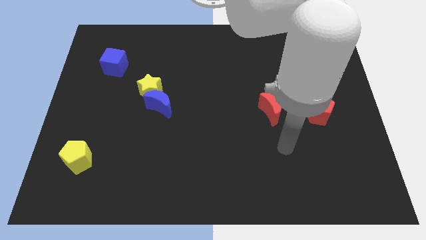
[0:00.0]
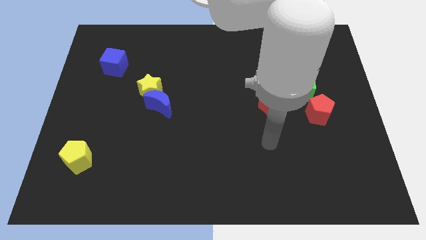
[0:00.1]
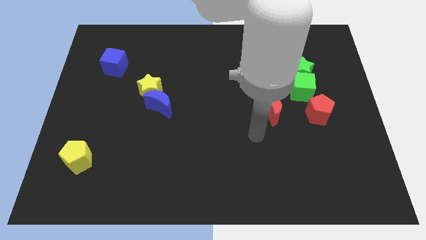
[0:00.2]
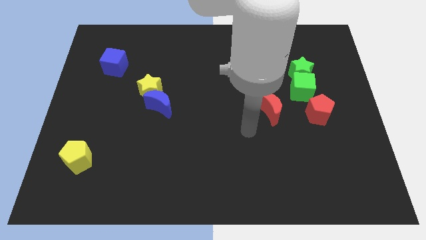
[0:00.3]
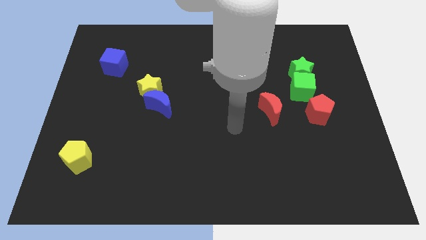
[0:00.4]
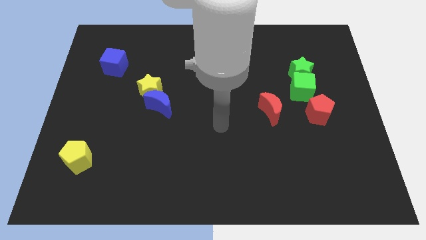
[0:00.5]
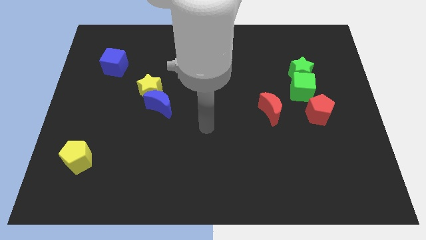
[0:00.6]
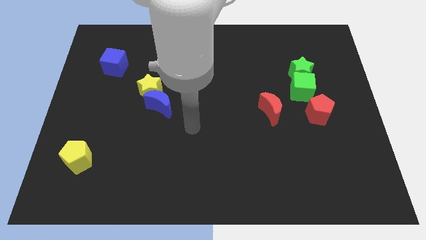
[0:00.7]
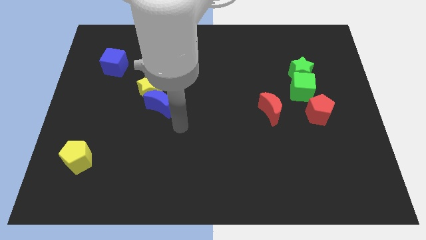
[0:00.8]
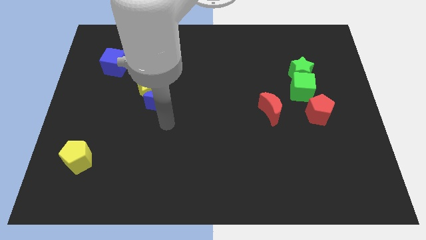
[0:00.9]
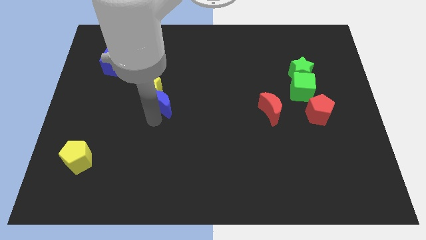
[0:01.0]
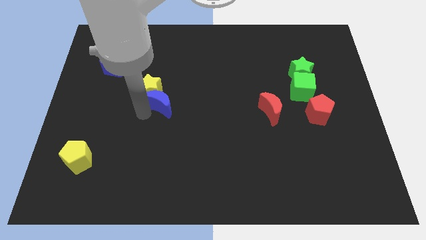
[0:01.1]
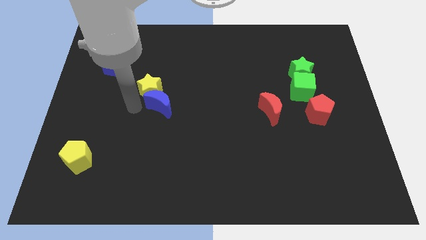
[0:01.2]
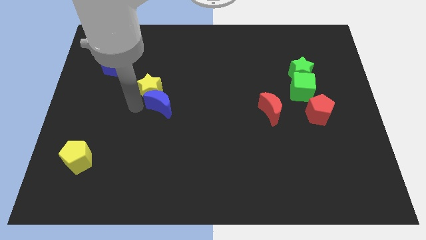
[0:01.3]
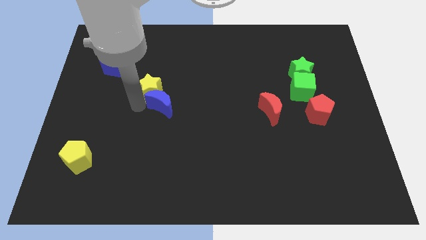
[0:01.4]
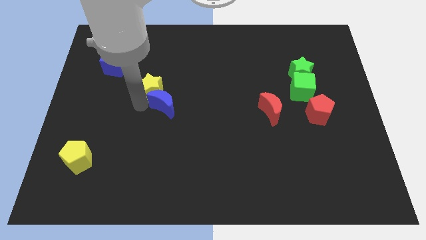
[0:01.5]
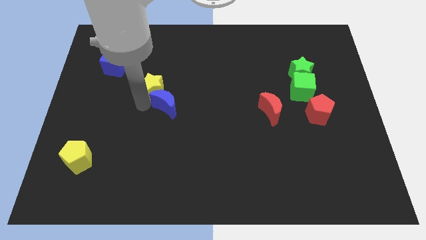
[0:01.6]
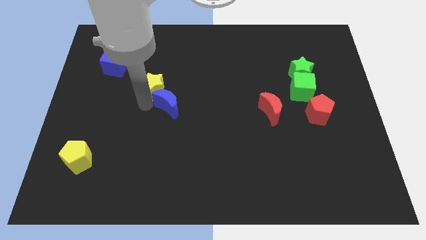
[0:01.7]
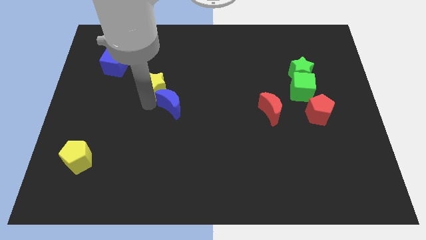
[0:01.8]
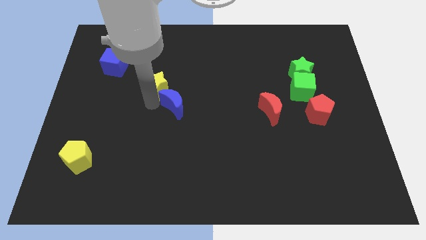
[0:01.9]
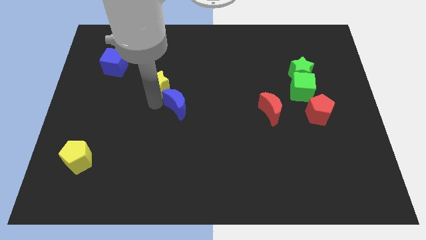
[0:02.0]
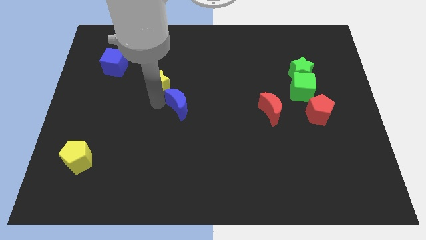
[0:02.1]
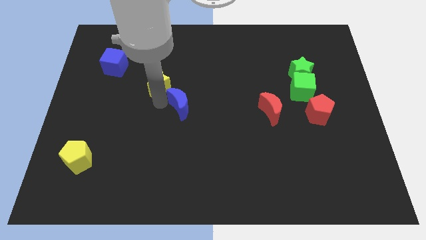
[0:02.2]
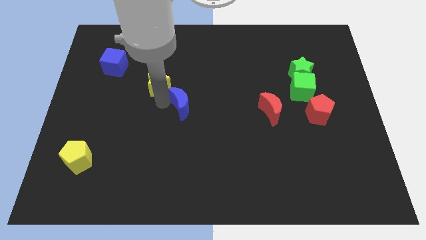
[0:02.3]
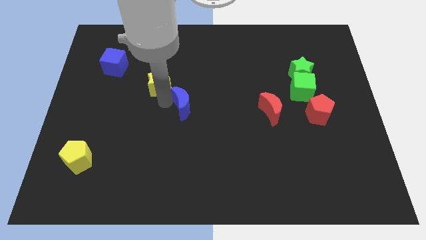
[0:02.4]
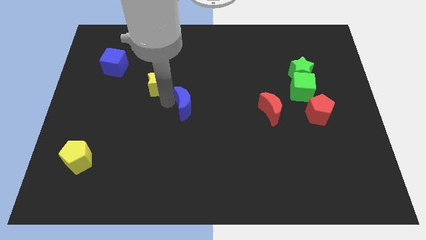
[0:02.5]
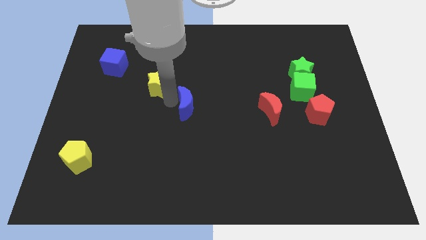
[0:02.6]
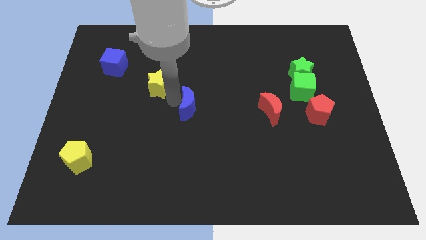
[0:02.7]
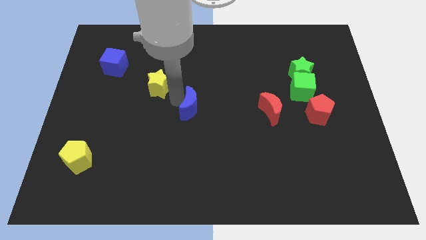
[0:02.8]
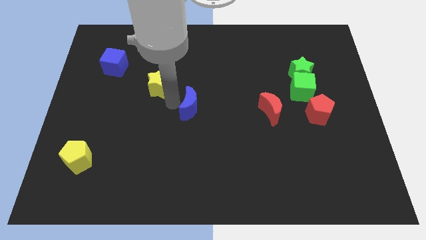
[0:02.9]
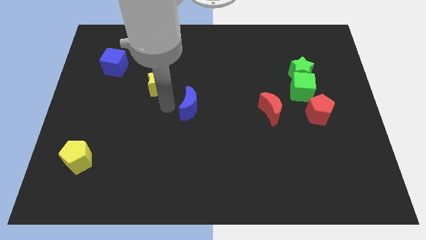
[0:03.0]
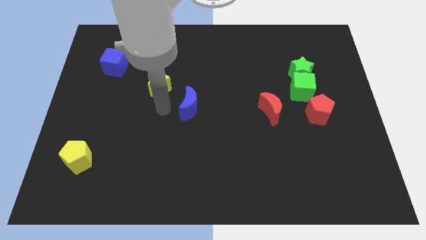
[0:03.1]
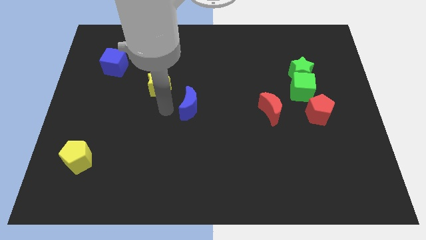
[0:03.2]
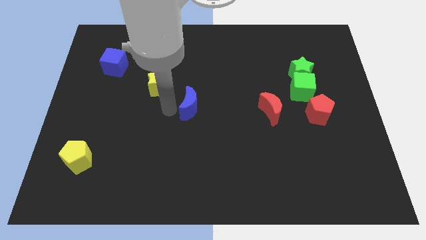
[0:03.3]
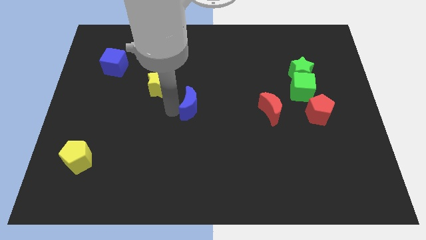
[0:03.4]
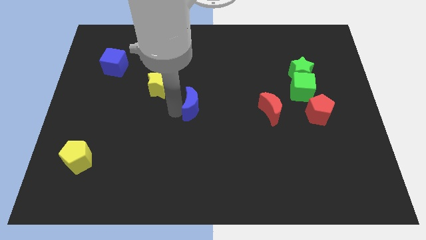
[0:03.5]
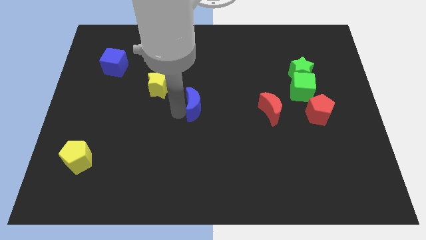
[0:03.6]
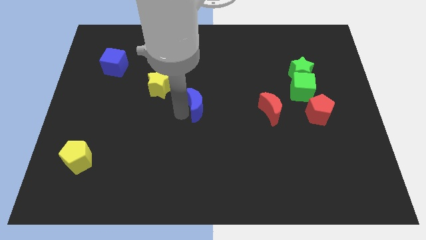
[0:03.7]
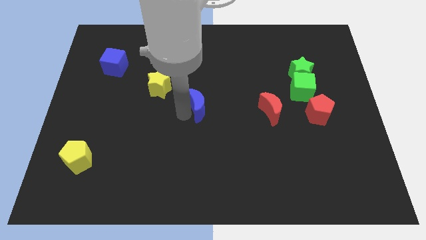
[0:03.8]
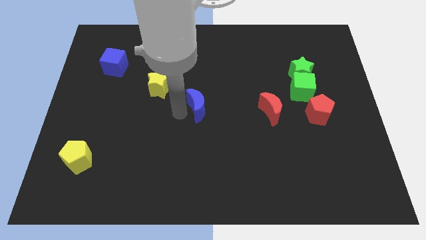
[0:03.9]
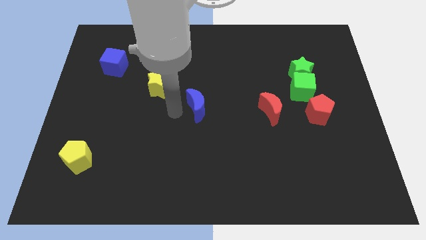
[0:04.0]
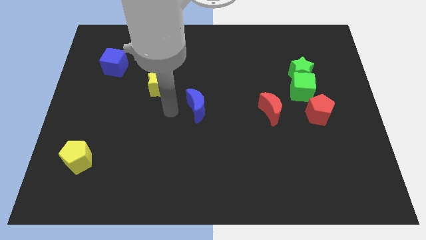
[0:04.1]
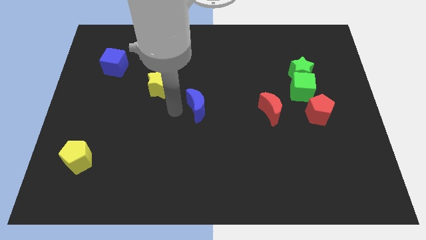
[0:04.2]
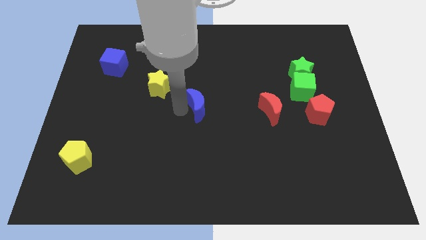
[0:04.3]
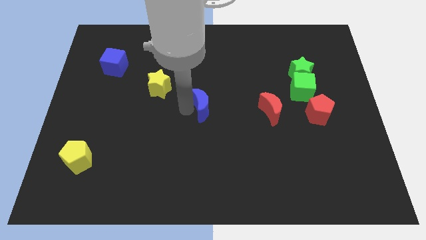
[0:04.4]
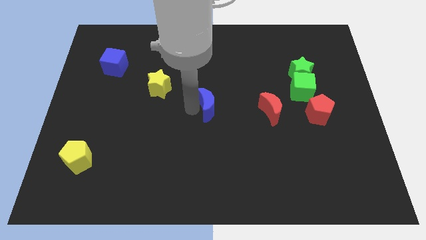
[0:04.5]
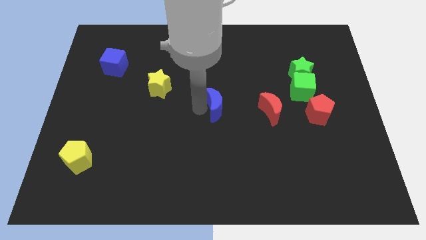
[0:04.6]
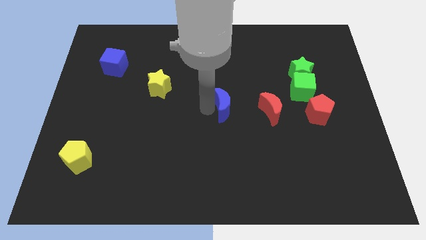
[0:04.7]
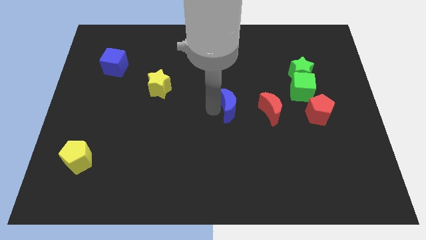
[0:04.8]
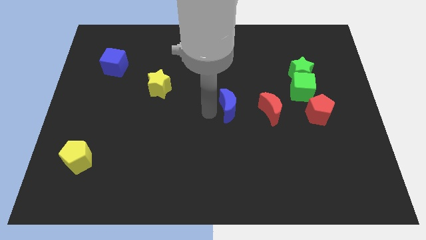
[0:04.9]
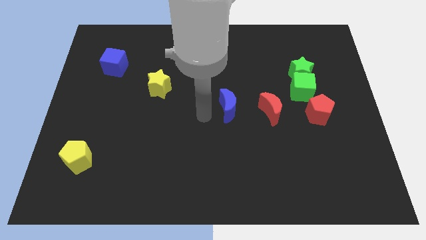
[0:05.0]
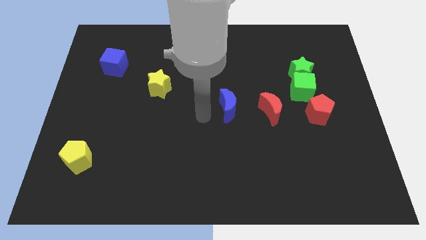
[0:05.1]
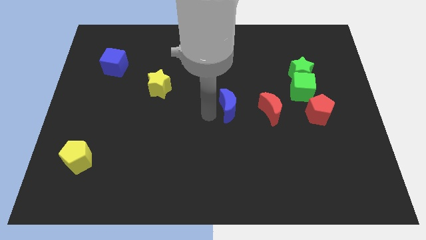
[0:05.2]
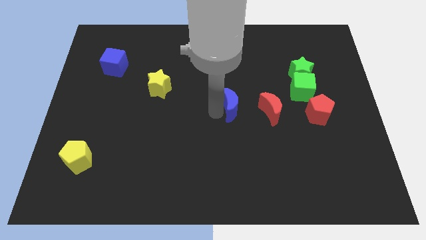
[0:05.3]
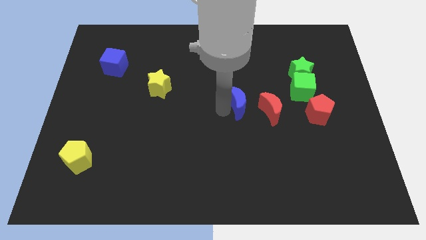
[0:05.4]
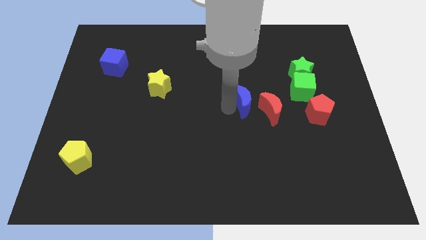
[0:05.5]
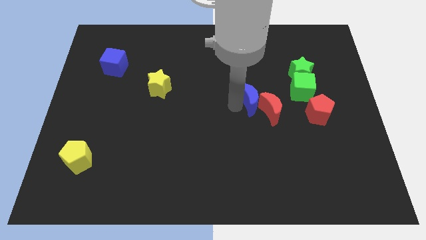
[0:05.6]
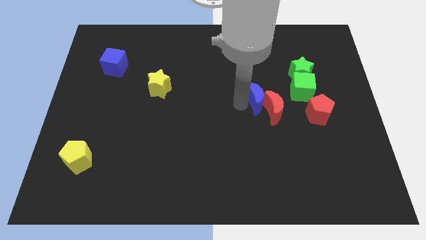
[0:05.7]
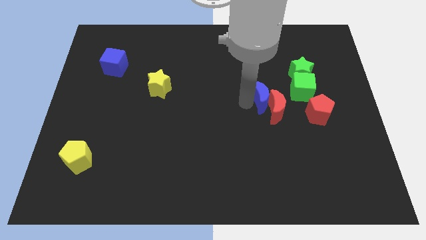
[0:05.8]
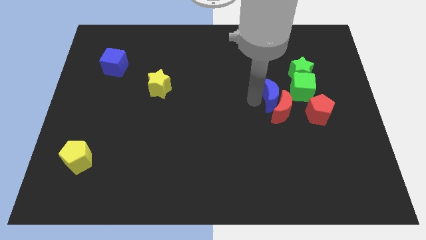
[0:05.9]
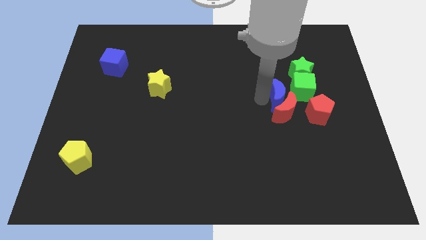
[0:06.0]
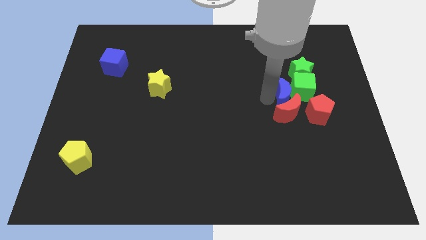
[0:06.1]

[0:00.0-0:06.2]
put the blue moon to the green cube

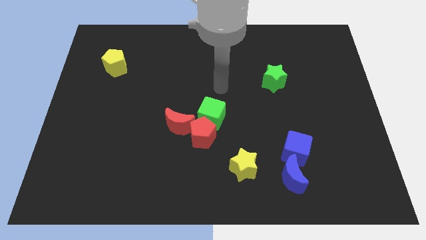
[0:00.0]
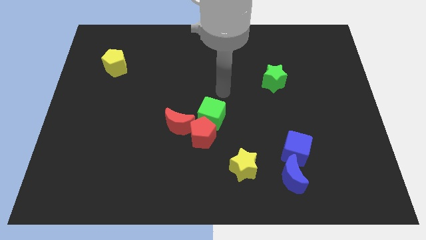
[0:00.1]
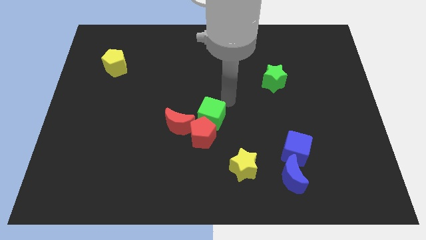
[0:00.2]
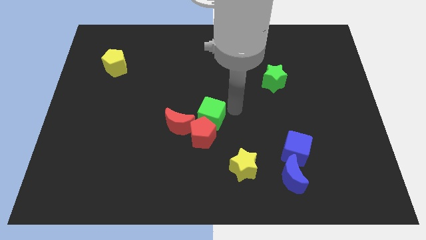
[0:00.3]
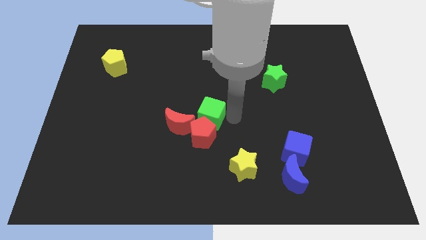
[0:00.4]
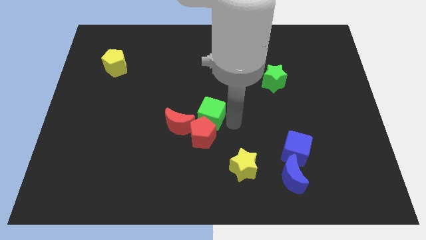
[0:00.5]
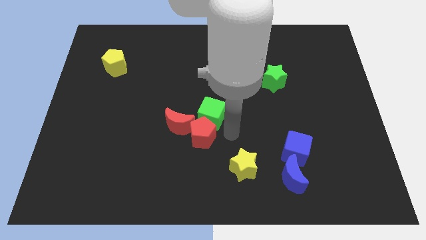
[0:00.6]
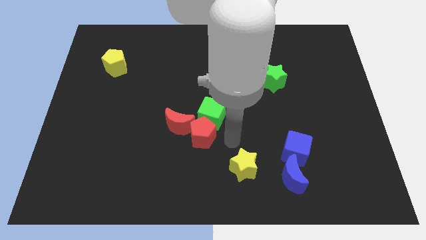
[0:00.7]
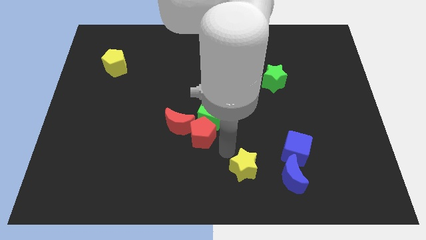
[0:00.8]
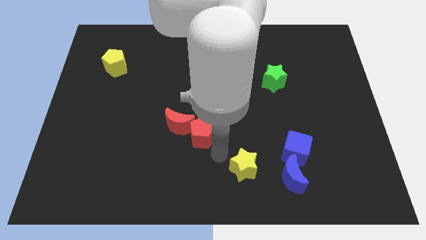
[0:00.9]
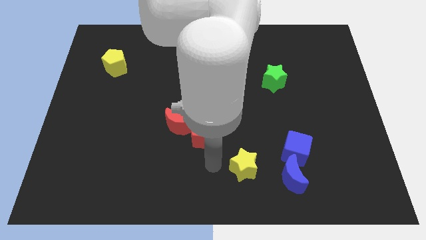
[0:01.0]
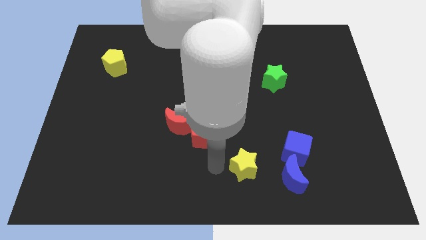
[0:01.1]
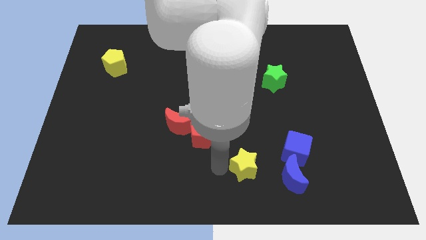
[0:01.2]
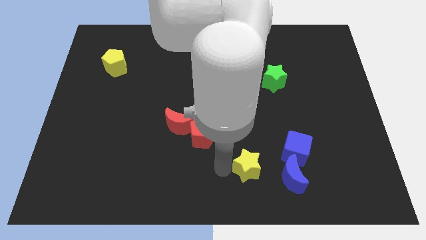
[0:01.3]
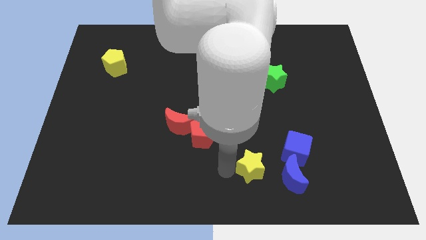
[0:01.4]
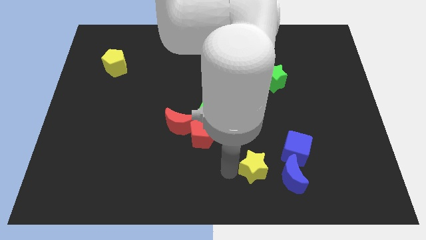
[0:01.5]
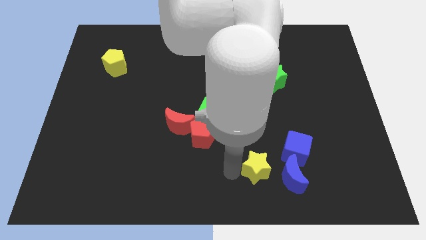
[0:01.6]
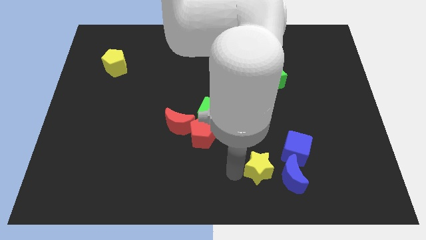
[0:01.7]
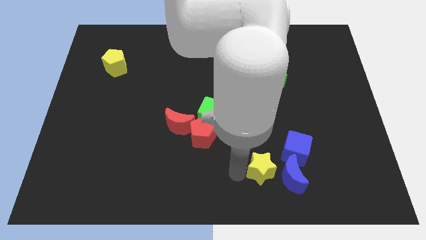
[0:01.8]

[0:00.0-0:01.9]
move the yellow star next to the blue moon
